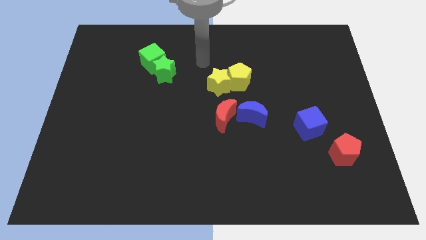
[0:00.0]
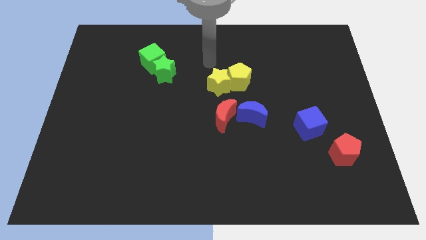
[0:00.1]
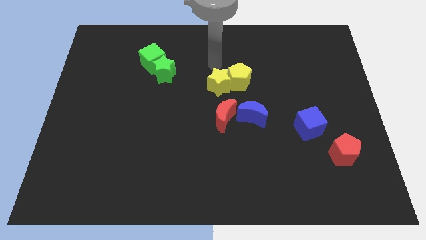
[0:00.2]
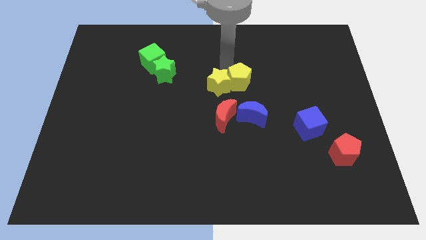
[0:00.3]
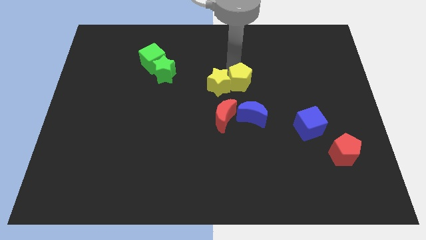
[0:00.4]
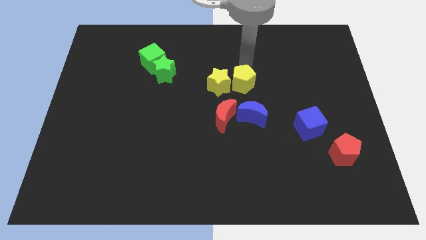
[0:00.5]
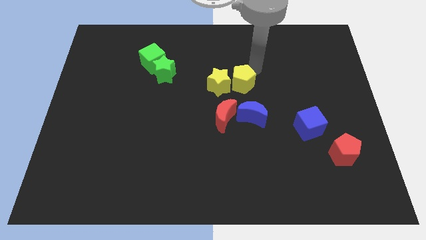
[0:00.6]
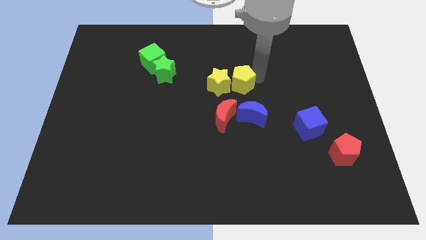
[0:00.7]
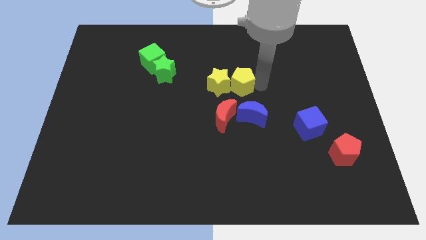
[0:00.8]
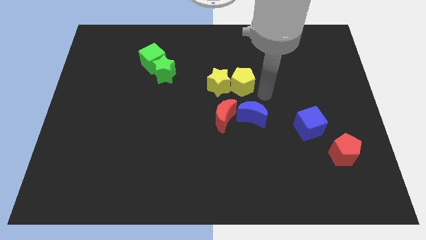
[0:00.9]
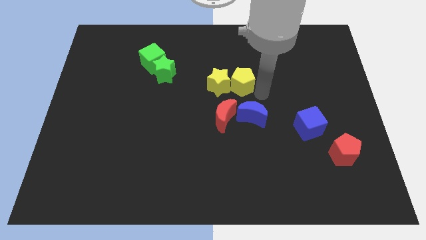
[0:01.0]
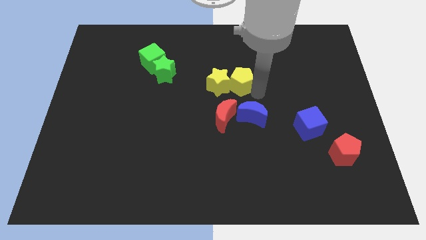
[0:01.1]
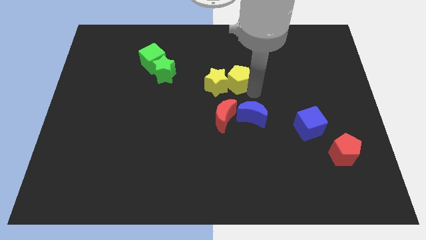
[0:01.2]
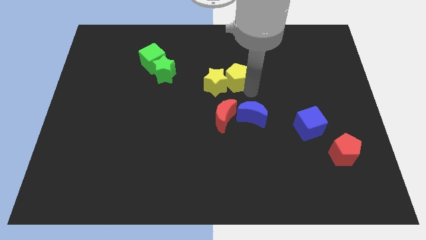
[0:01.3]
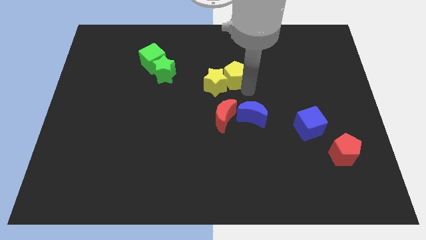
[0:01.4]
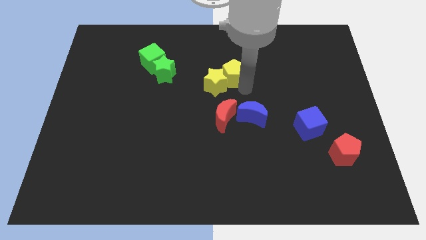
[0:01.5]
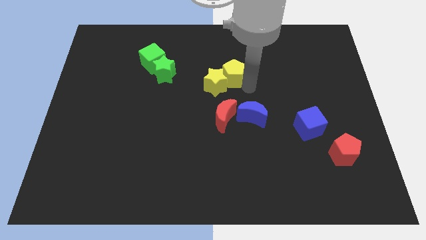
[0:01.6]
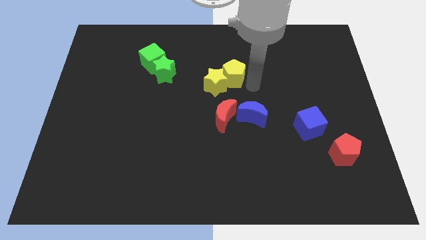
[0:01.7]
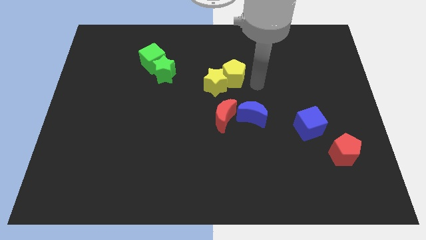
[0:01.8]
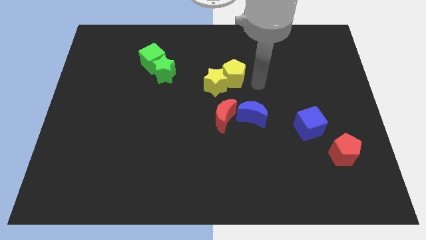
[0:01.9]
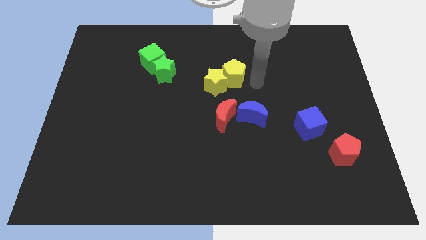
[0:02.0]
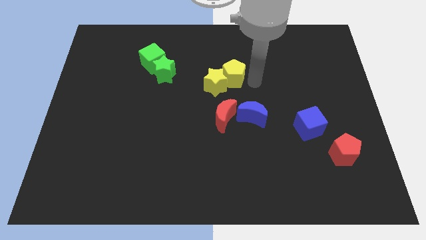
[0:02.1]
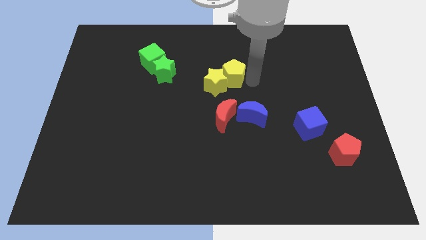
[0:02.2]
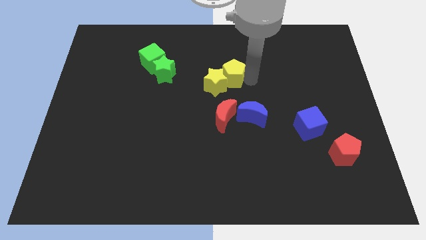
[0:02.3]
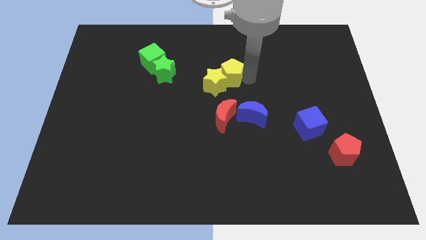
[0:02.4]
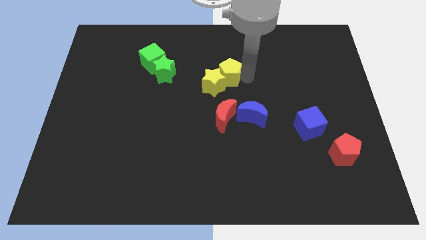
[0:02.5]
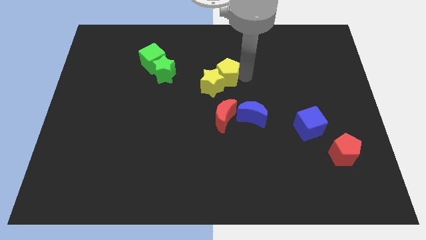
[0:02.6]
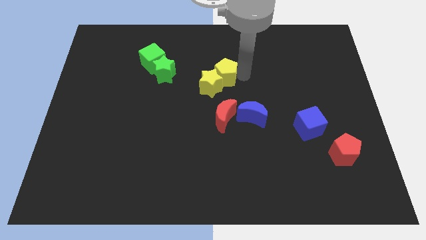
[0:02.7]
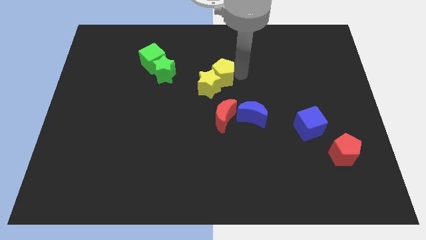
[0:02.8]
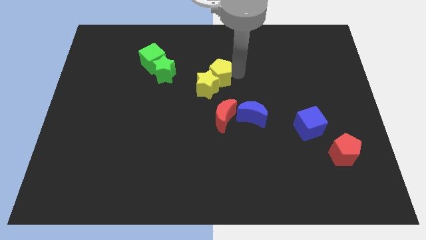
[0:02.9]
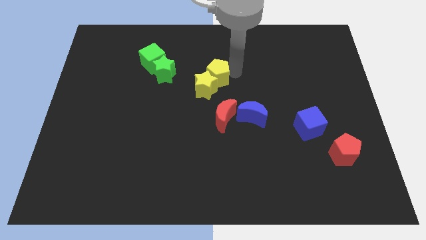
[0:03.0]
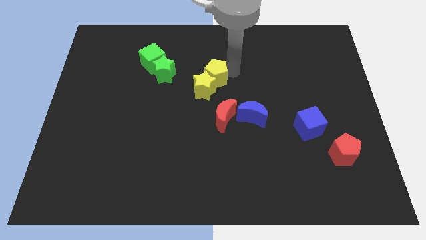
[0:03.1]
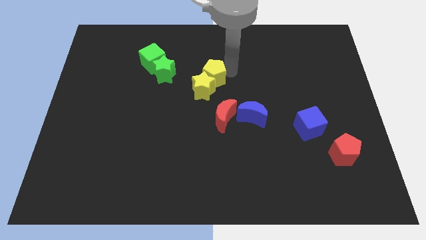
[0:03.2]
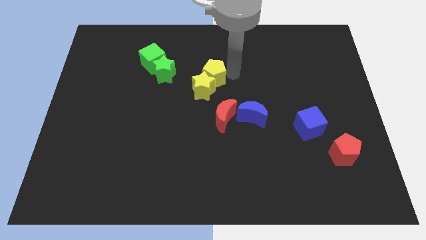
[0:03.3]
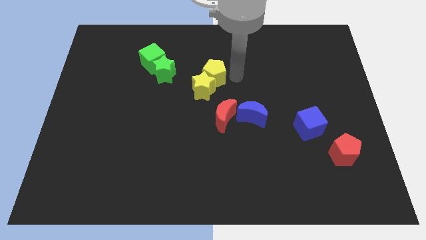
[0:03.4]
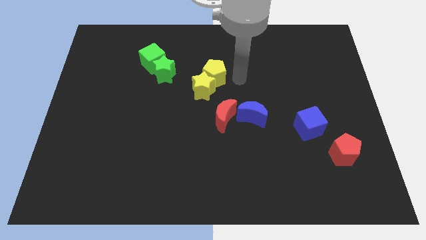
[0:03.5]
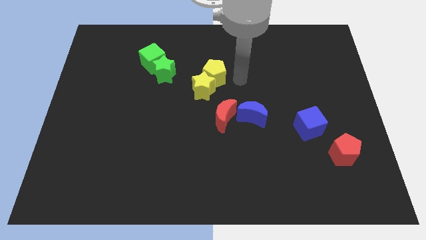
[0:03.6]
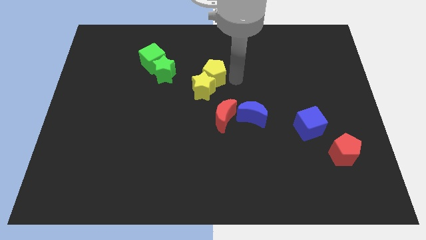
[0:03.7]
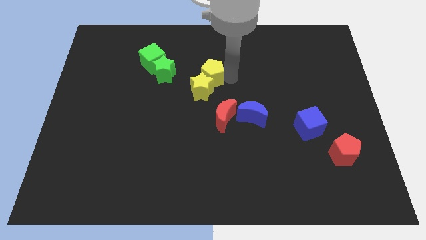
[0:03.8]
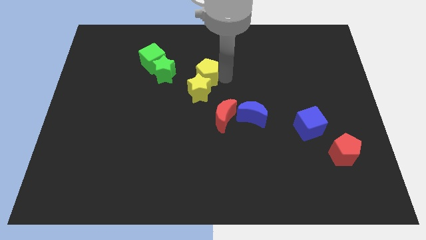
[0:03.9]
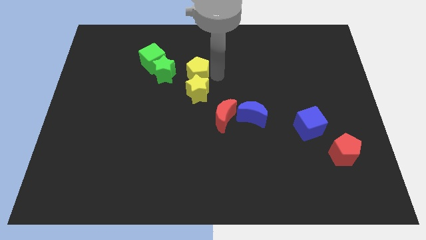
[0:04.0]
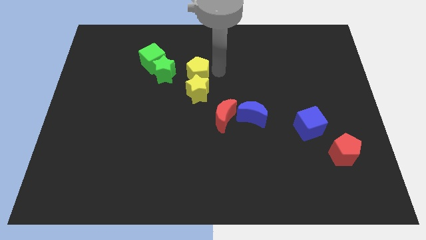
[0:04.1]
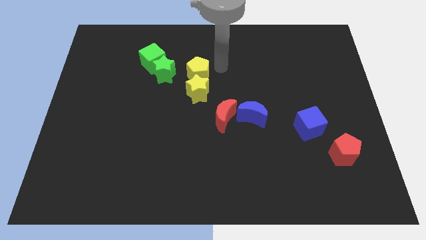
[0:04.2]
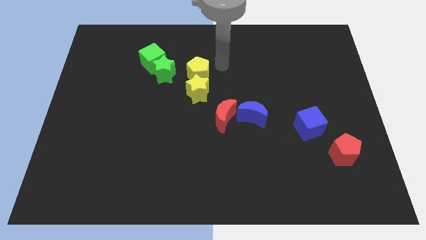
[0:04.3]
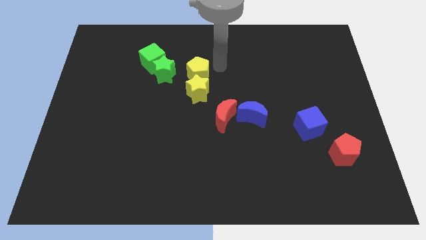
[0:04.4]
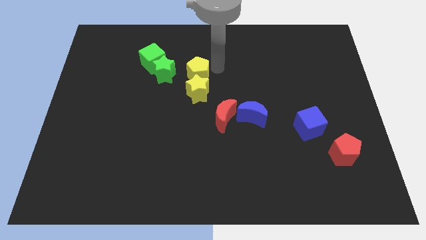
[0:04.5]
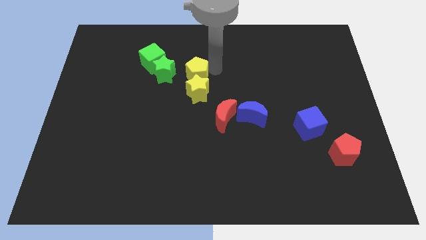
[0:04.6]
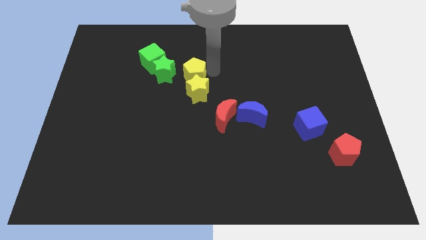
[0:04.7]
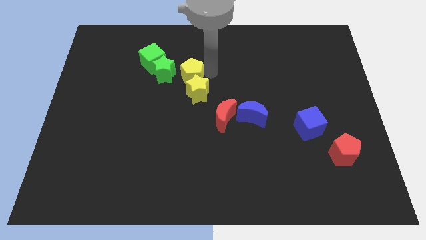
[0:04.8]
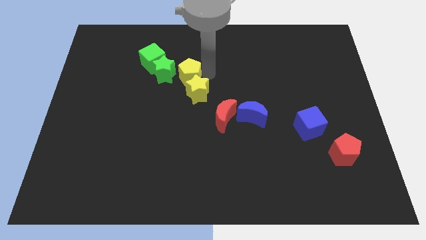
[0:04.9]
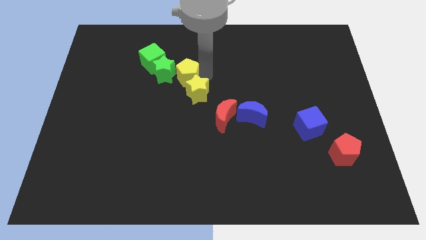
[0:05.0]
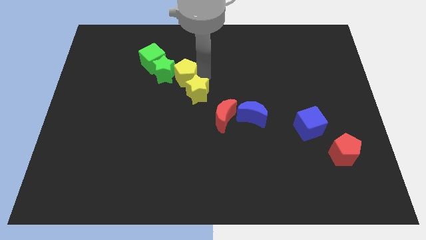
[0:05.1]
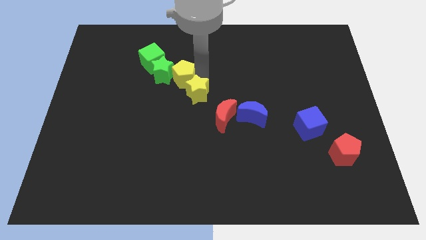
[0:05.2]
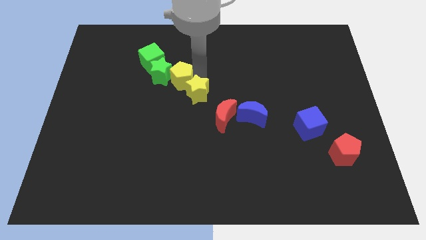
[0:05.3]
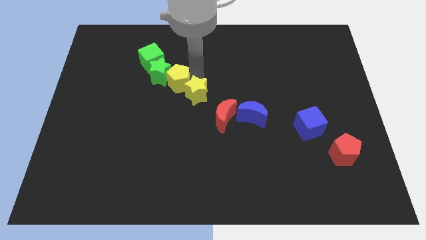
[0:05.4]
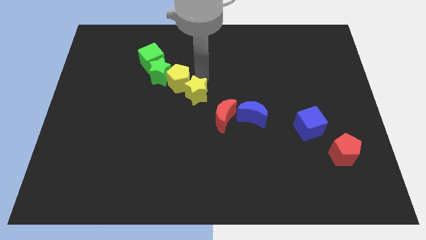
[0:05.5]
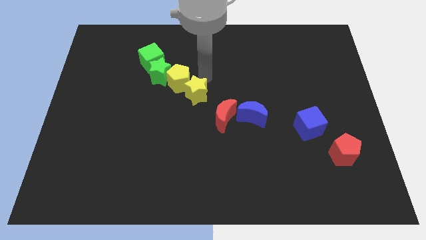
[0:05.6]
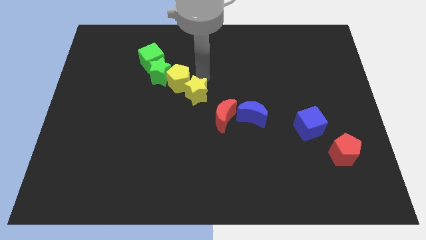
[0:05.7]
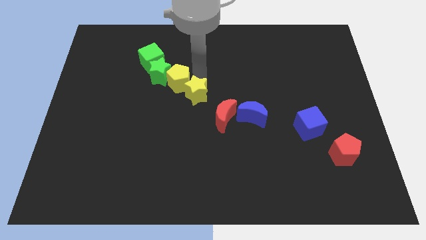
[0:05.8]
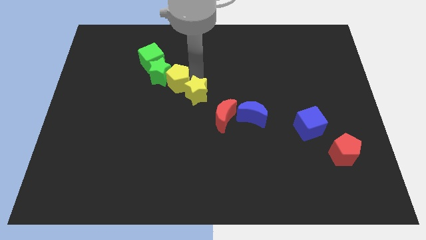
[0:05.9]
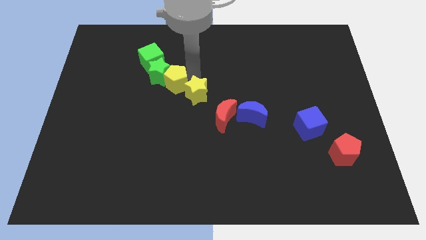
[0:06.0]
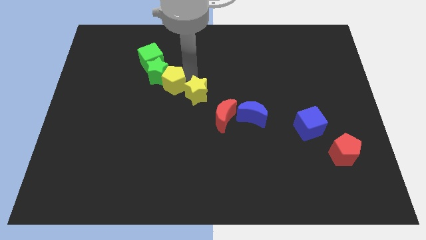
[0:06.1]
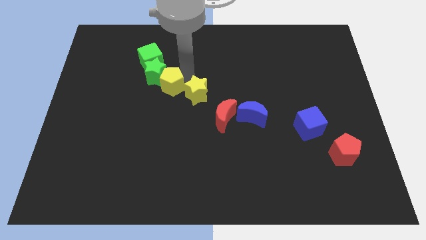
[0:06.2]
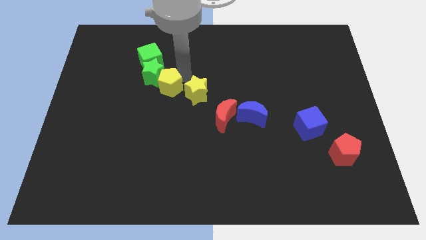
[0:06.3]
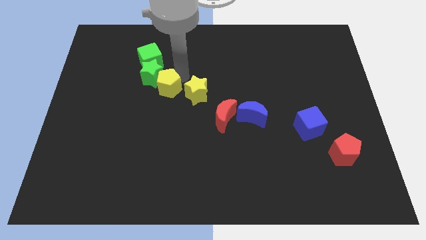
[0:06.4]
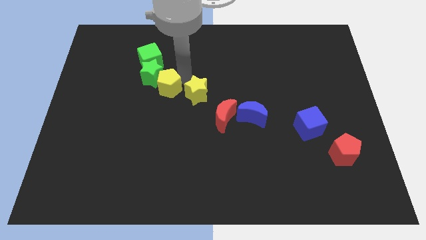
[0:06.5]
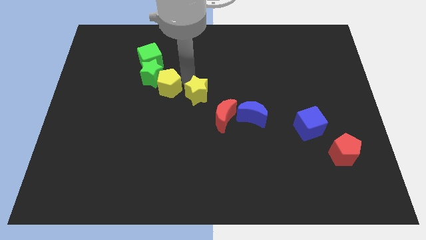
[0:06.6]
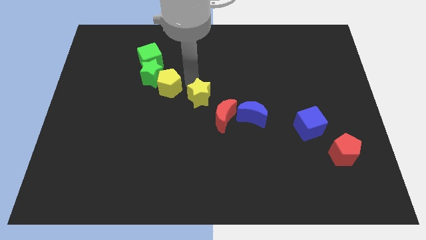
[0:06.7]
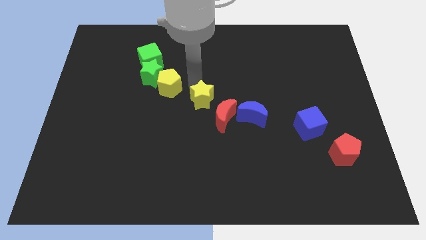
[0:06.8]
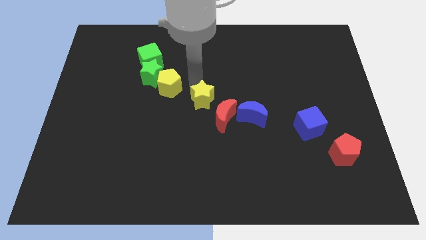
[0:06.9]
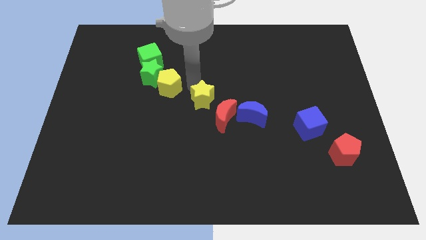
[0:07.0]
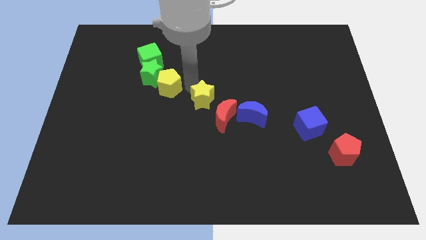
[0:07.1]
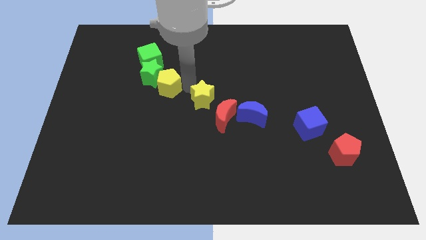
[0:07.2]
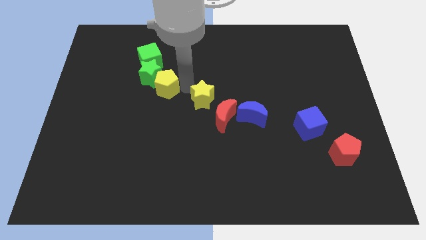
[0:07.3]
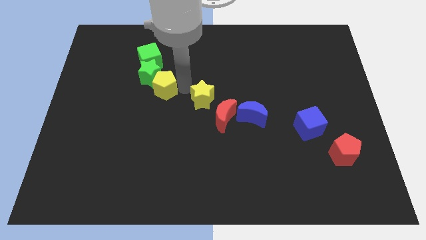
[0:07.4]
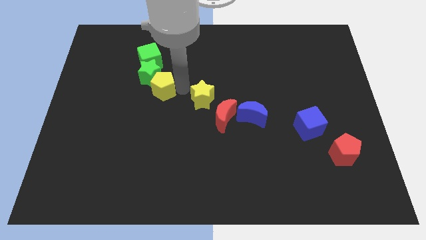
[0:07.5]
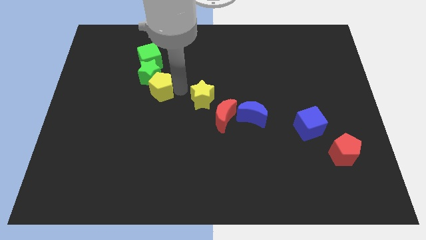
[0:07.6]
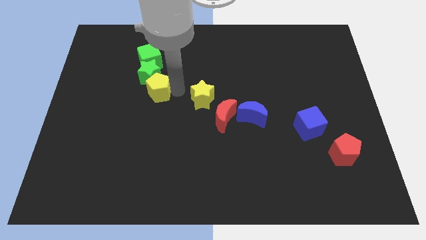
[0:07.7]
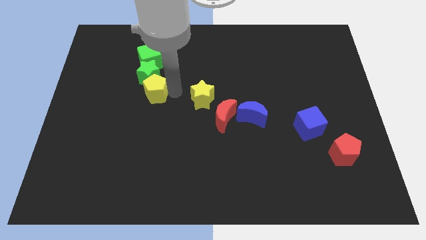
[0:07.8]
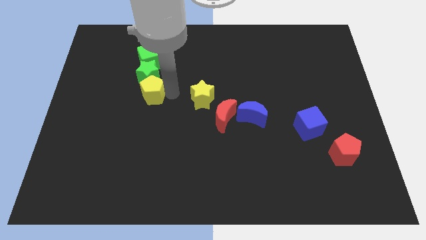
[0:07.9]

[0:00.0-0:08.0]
slide the yellow pentagon to the left

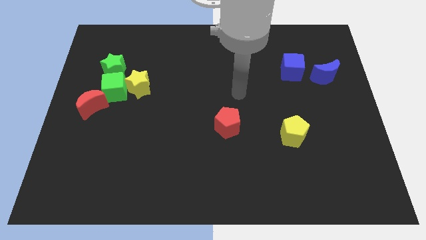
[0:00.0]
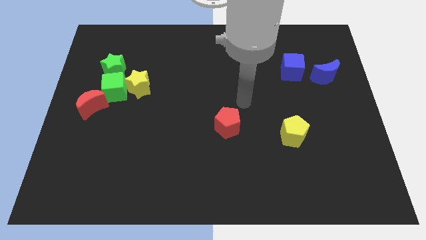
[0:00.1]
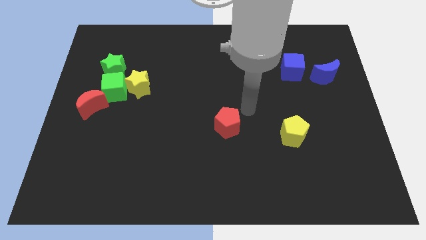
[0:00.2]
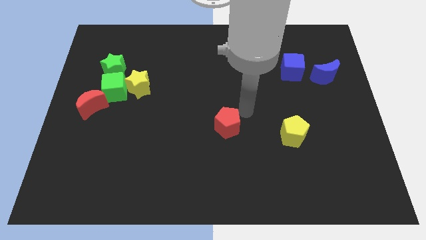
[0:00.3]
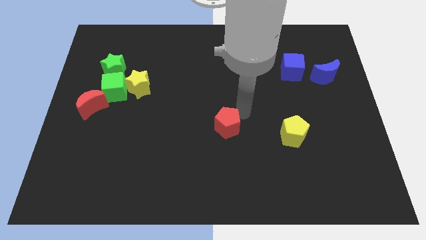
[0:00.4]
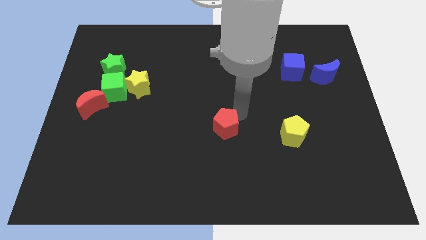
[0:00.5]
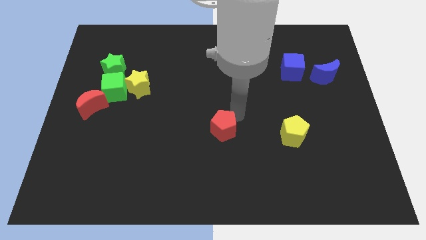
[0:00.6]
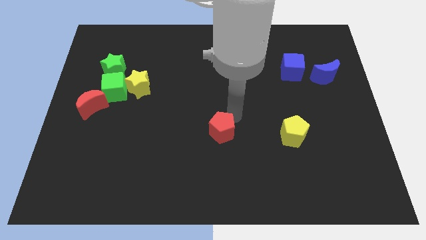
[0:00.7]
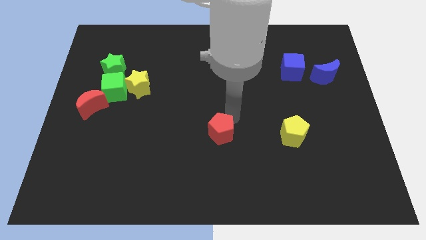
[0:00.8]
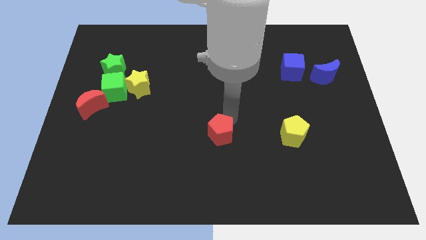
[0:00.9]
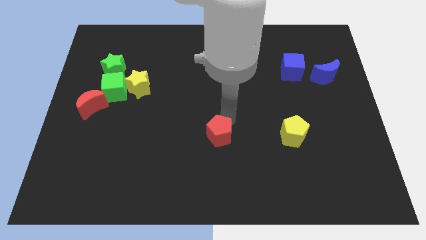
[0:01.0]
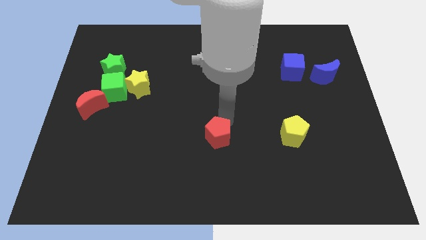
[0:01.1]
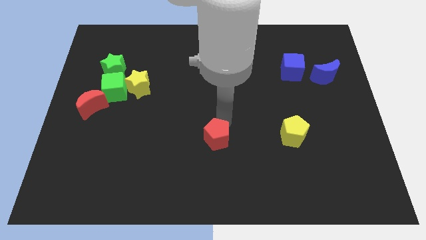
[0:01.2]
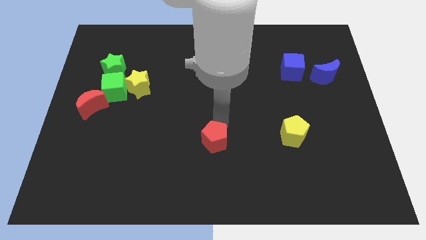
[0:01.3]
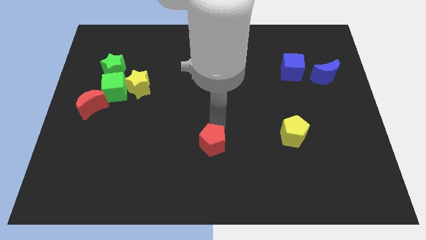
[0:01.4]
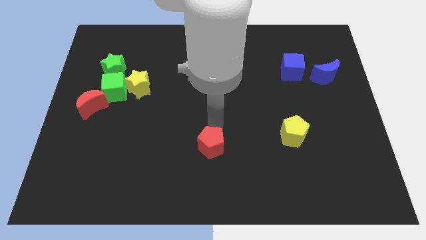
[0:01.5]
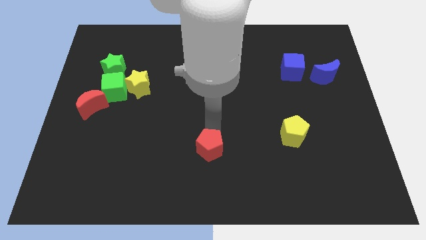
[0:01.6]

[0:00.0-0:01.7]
push the red pentagon somewhat diagonally down and left
